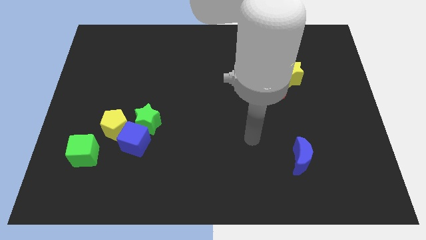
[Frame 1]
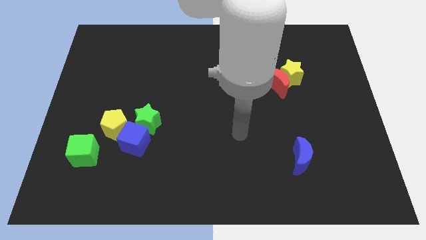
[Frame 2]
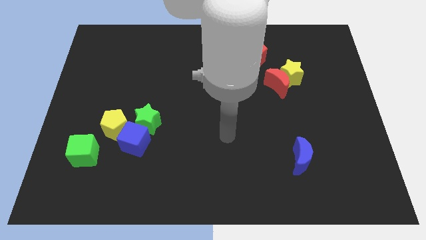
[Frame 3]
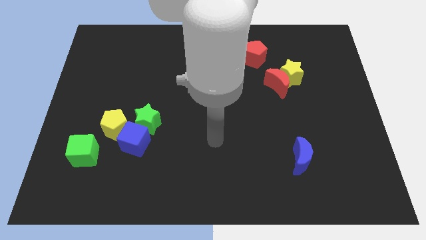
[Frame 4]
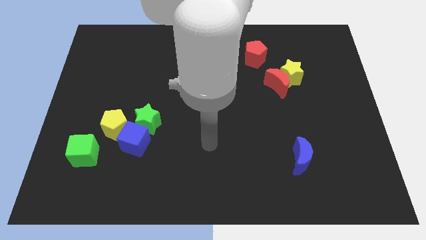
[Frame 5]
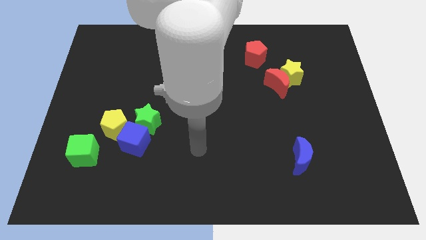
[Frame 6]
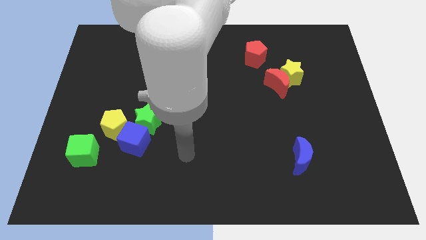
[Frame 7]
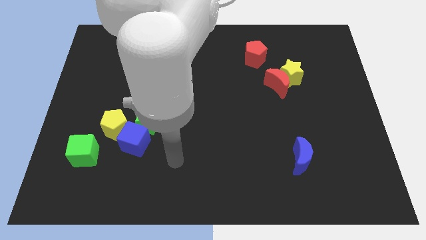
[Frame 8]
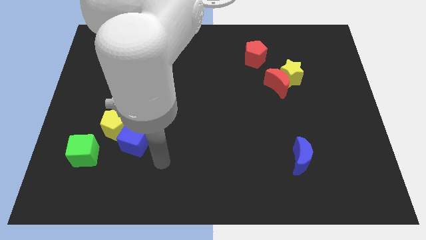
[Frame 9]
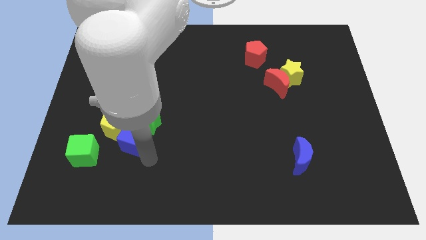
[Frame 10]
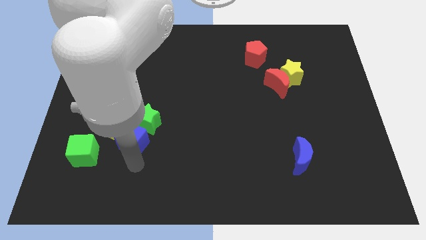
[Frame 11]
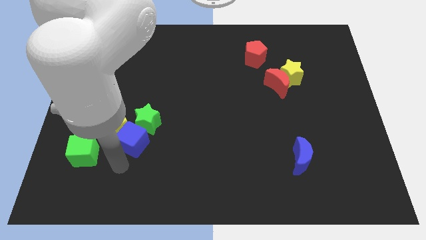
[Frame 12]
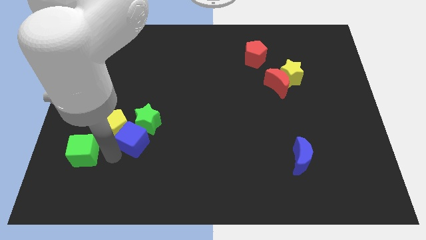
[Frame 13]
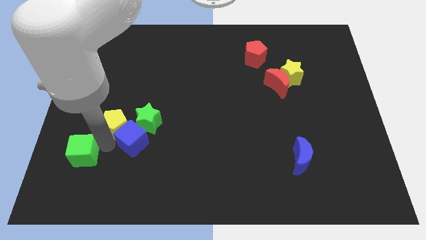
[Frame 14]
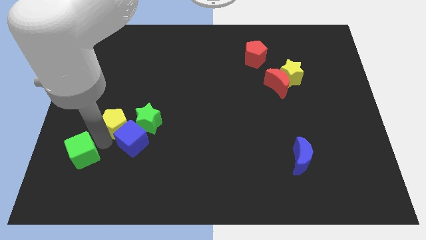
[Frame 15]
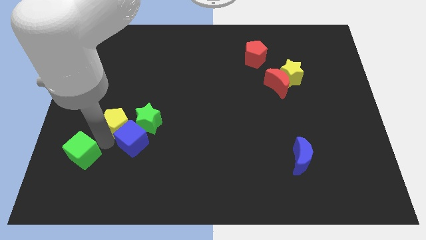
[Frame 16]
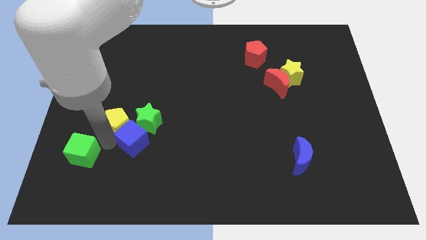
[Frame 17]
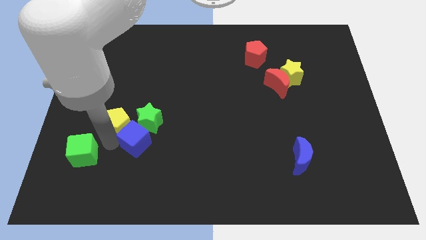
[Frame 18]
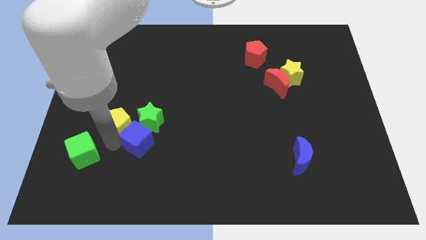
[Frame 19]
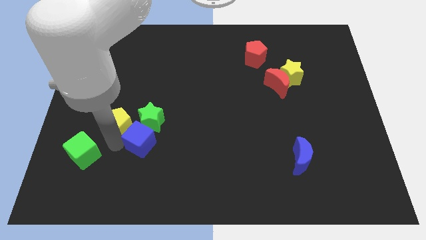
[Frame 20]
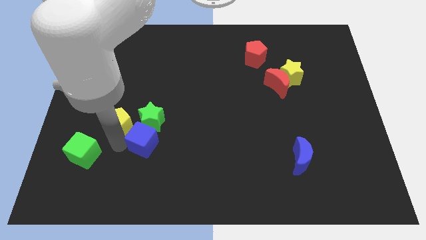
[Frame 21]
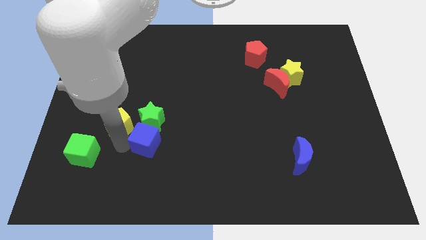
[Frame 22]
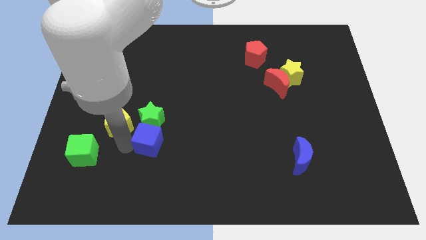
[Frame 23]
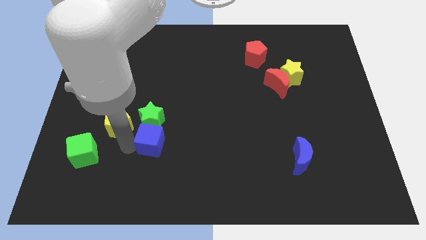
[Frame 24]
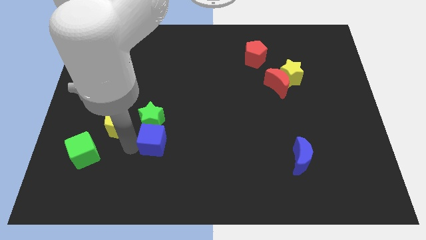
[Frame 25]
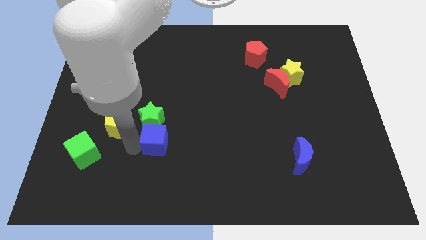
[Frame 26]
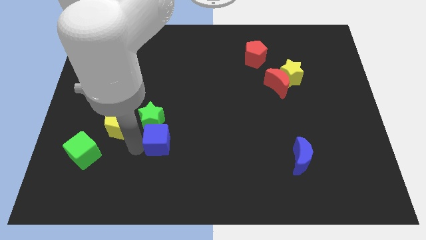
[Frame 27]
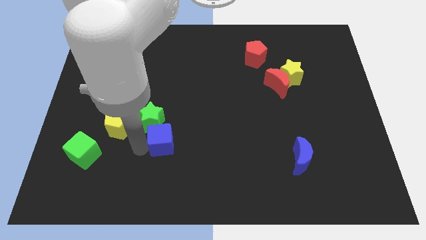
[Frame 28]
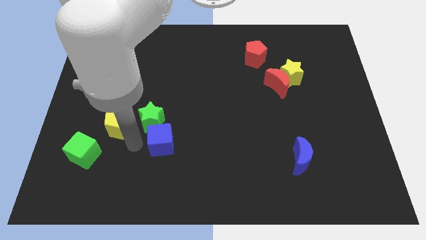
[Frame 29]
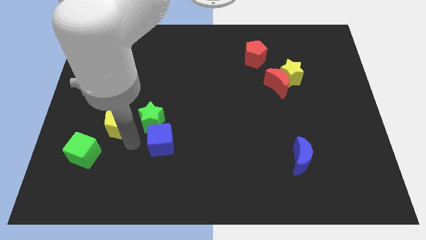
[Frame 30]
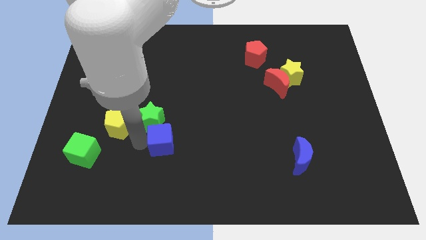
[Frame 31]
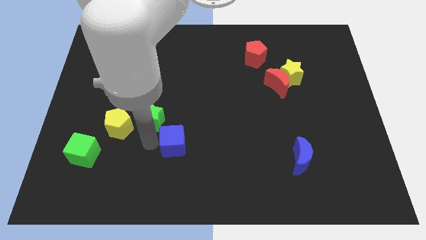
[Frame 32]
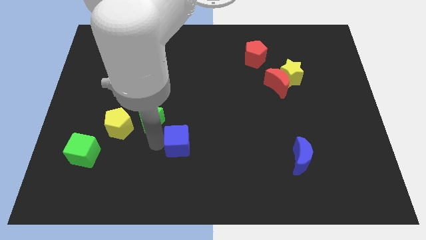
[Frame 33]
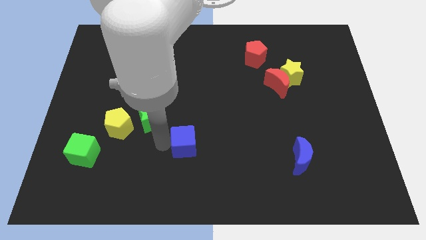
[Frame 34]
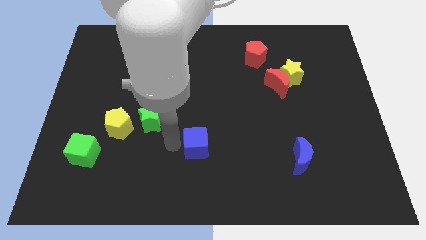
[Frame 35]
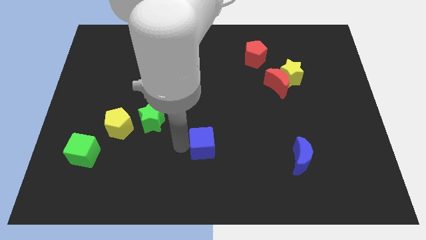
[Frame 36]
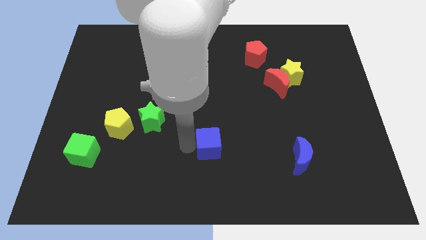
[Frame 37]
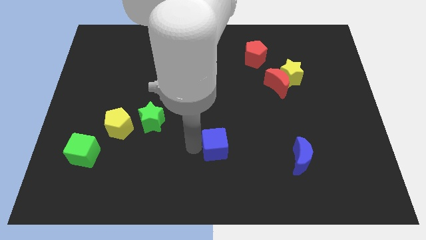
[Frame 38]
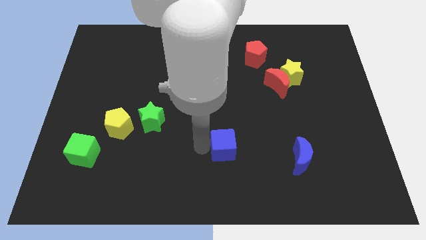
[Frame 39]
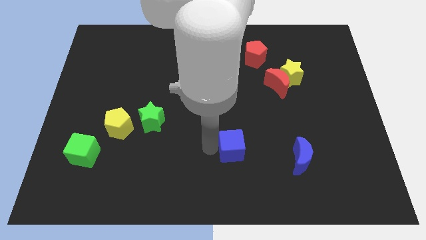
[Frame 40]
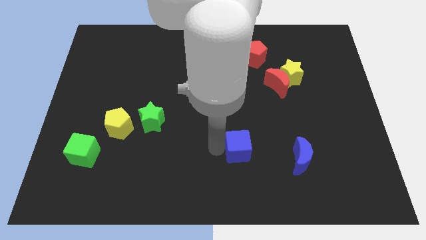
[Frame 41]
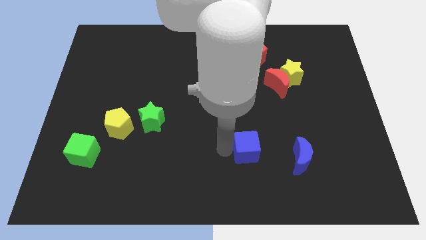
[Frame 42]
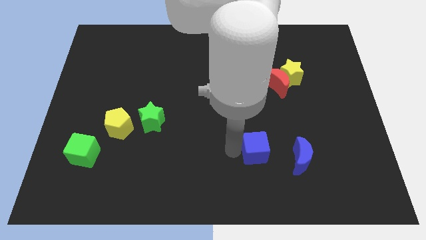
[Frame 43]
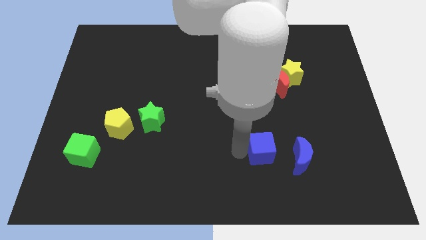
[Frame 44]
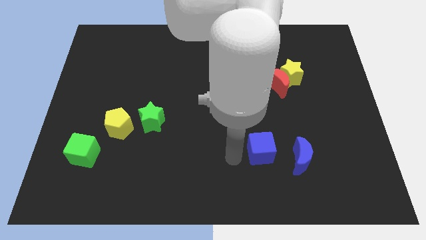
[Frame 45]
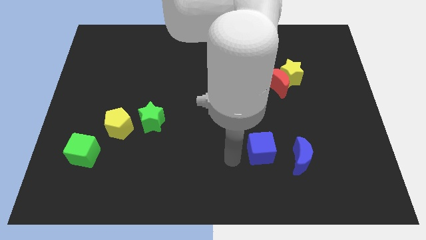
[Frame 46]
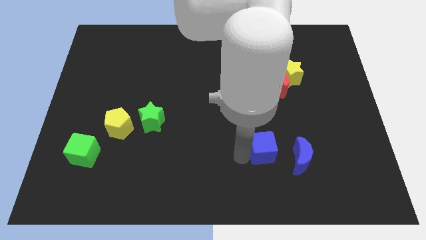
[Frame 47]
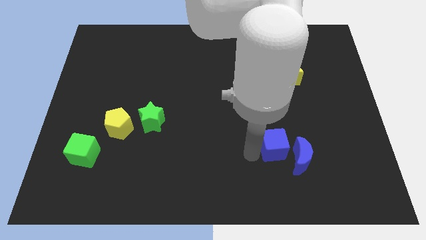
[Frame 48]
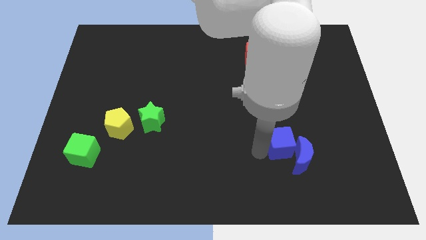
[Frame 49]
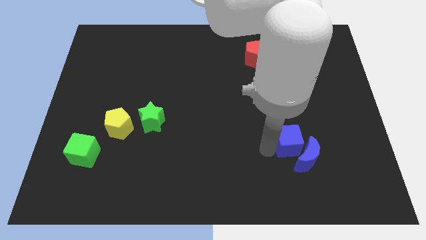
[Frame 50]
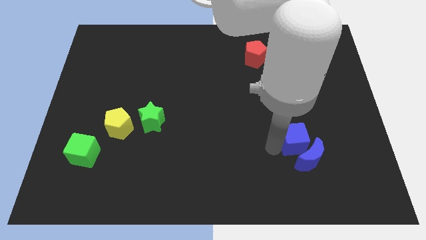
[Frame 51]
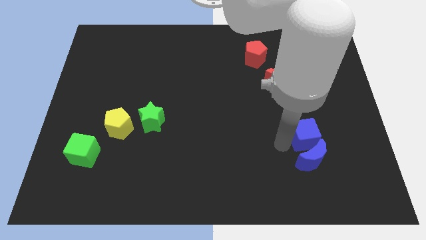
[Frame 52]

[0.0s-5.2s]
slide the blue cube to the top right side of the blue moon

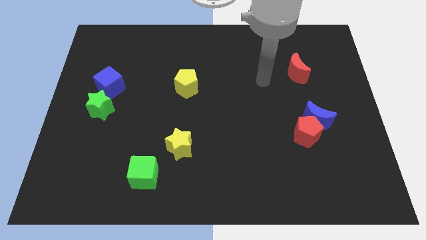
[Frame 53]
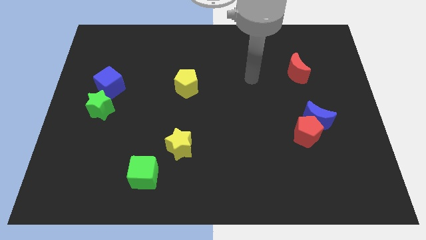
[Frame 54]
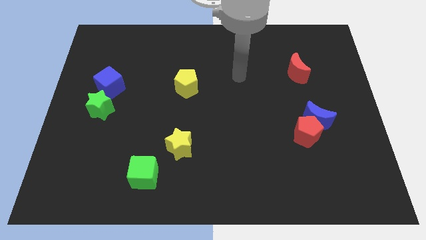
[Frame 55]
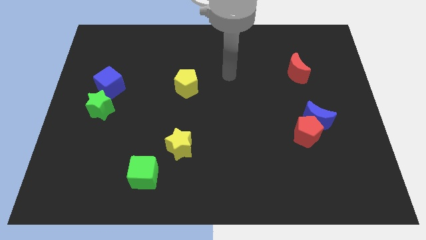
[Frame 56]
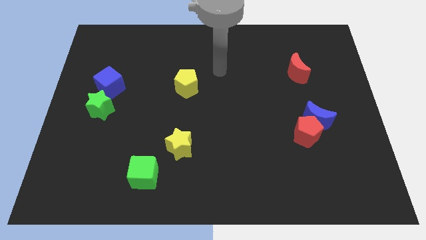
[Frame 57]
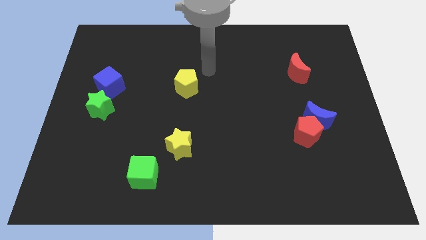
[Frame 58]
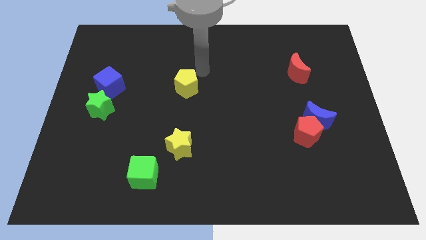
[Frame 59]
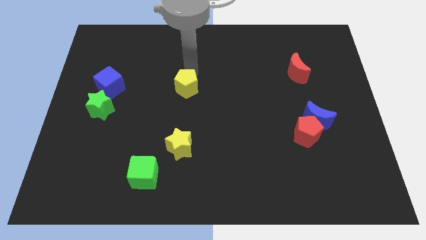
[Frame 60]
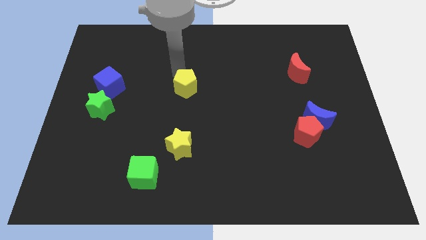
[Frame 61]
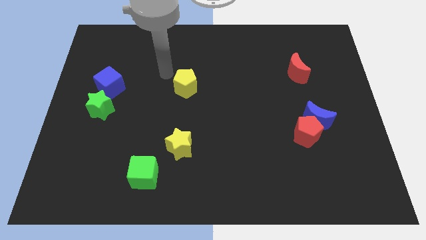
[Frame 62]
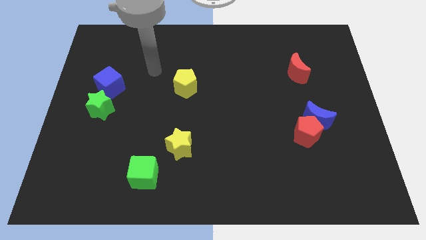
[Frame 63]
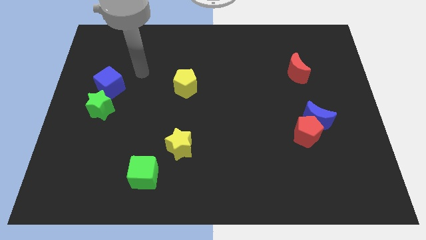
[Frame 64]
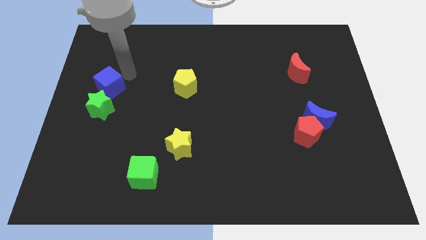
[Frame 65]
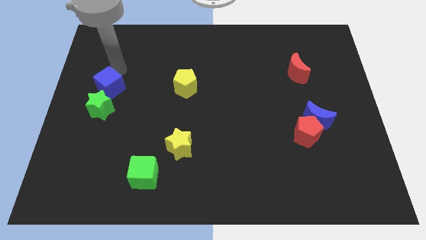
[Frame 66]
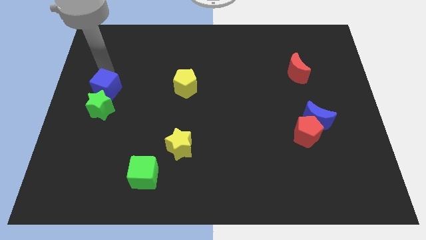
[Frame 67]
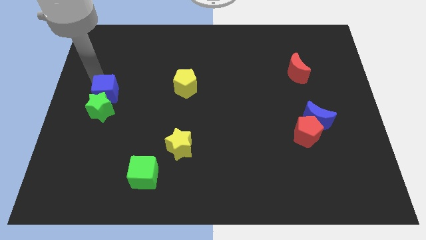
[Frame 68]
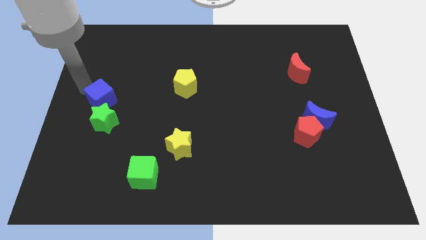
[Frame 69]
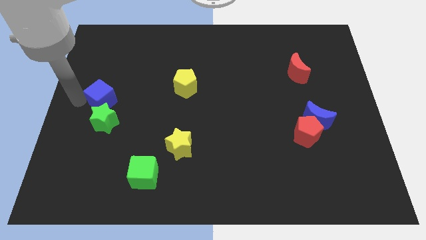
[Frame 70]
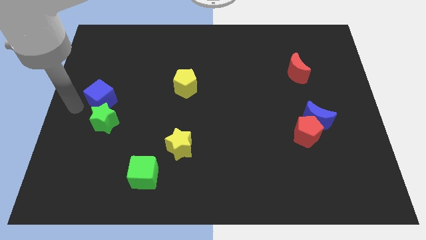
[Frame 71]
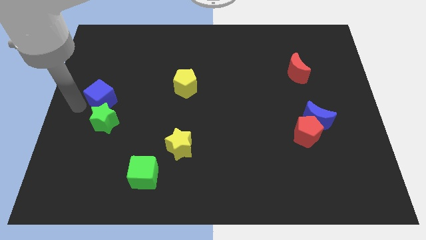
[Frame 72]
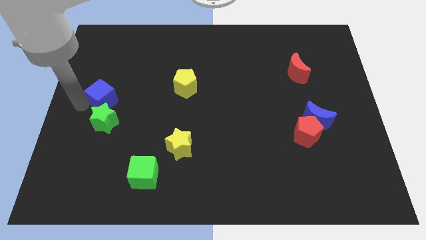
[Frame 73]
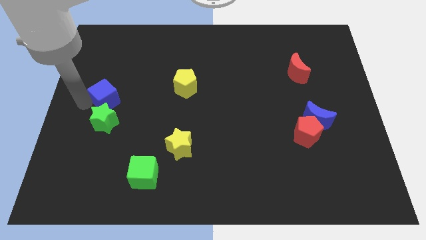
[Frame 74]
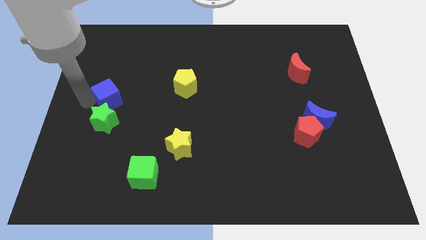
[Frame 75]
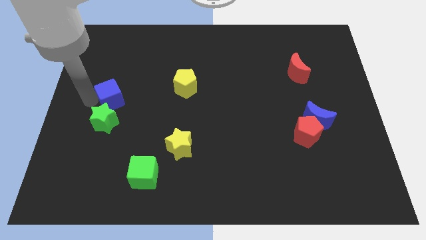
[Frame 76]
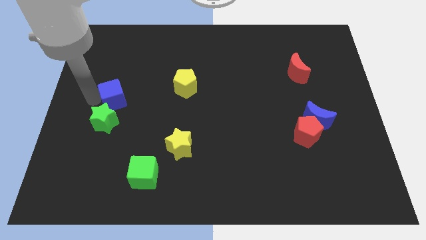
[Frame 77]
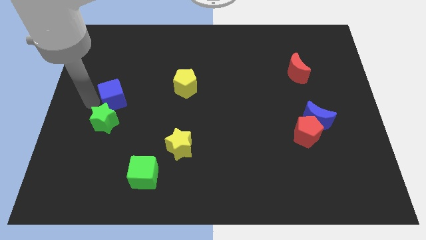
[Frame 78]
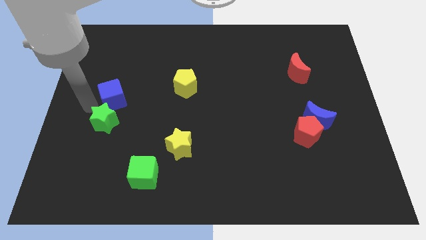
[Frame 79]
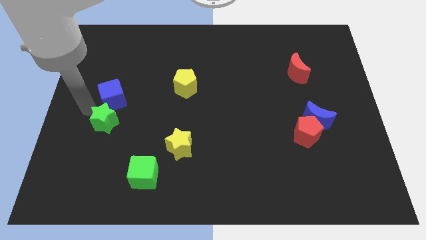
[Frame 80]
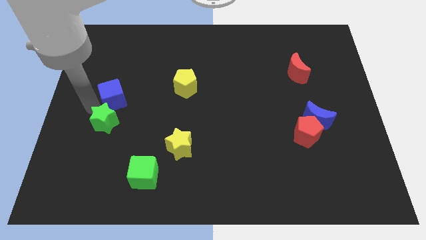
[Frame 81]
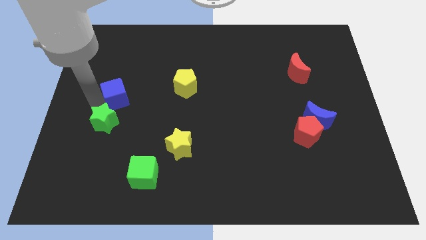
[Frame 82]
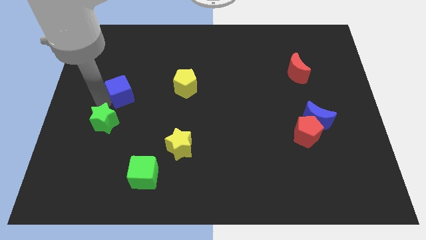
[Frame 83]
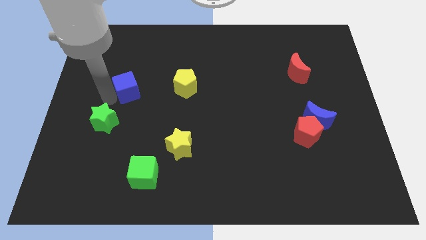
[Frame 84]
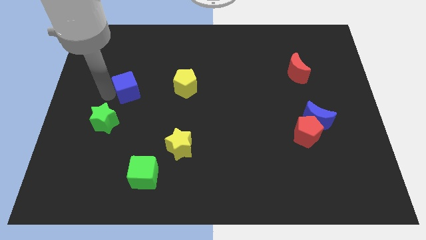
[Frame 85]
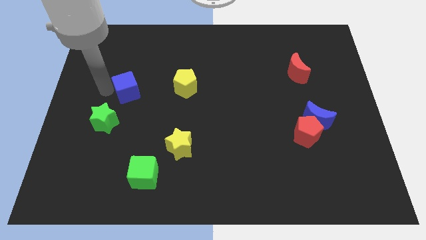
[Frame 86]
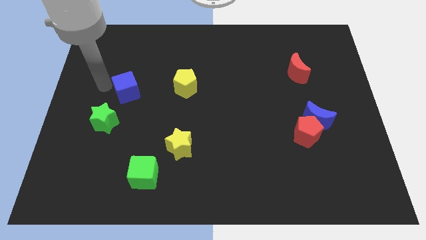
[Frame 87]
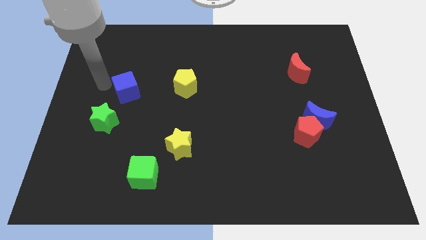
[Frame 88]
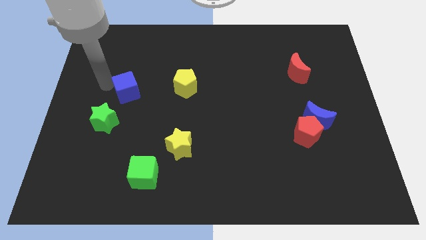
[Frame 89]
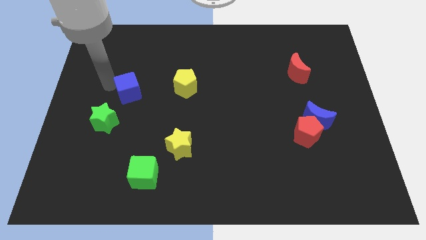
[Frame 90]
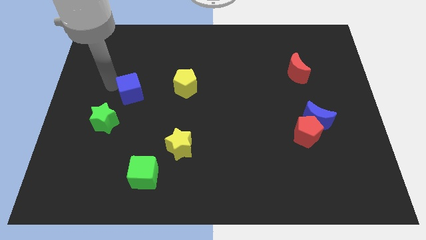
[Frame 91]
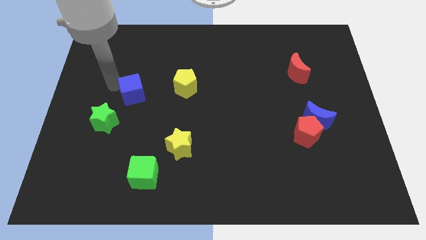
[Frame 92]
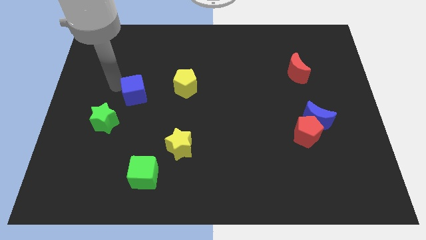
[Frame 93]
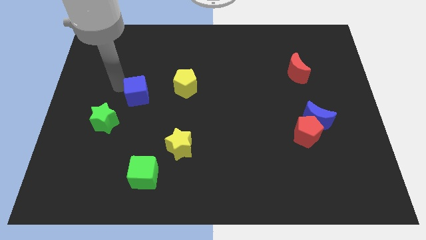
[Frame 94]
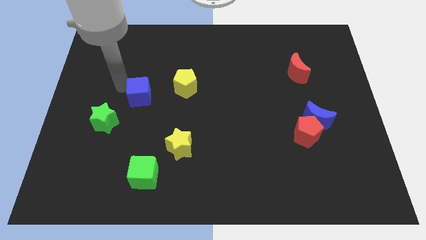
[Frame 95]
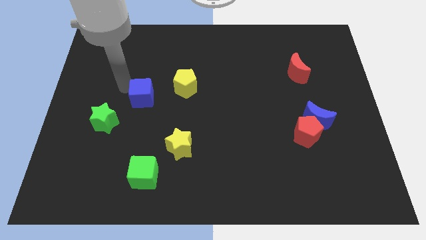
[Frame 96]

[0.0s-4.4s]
move the blue cube to the bottom left of the yellow pentagon
